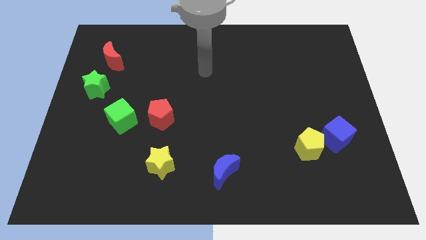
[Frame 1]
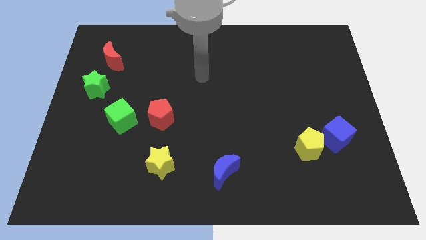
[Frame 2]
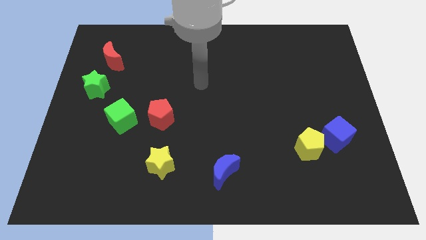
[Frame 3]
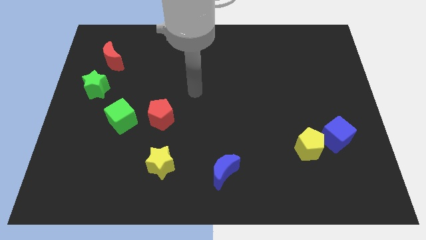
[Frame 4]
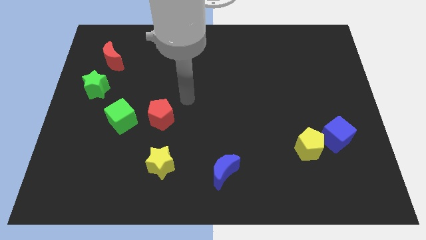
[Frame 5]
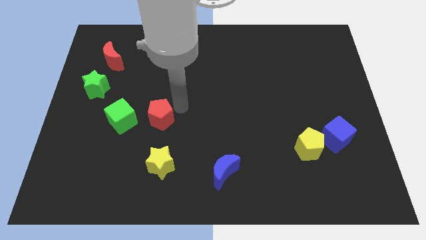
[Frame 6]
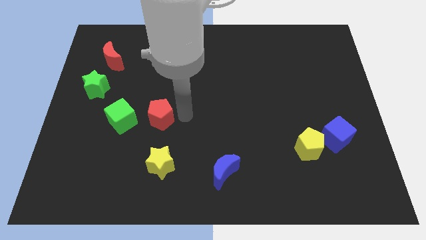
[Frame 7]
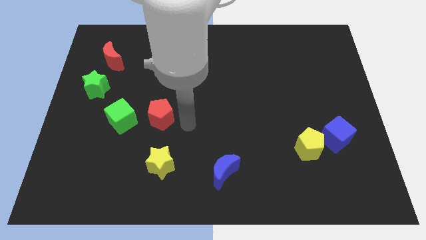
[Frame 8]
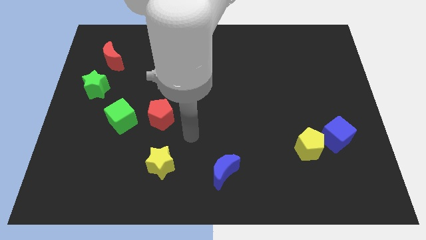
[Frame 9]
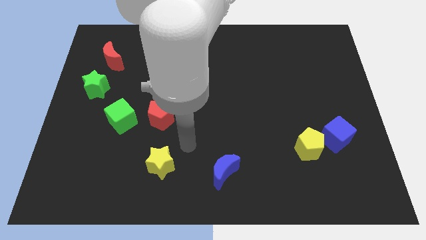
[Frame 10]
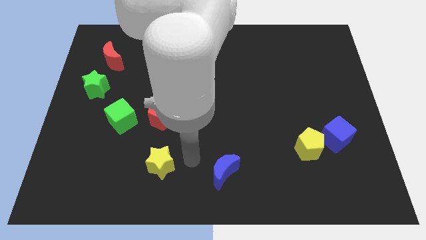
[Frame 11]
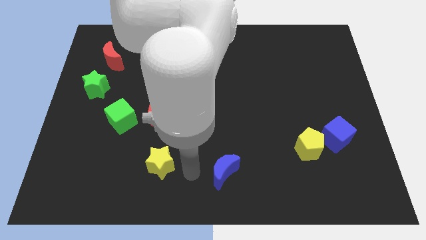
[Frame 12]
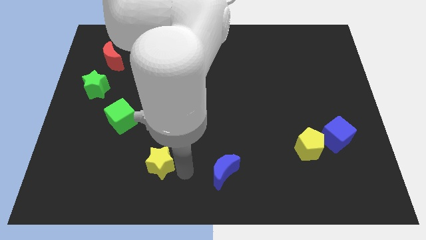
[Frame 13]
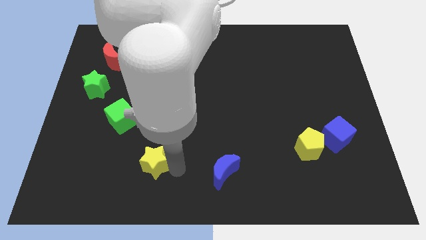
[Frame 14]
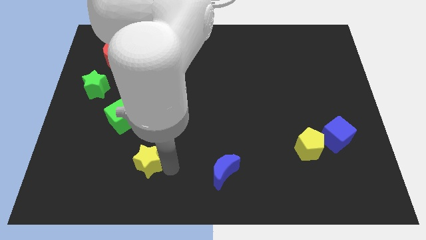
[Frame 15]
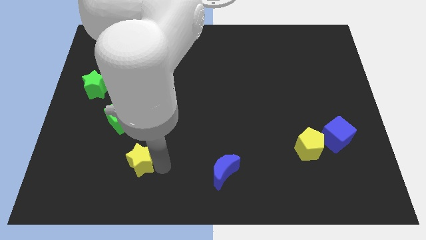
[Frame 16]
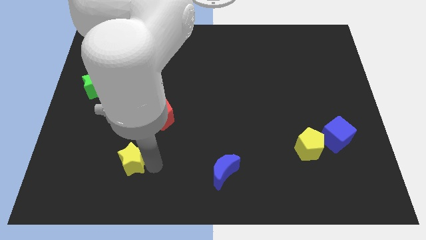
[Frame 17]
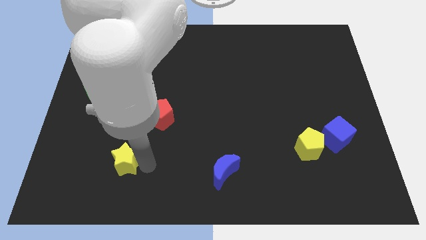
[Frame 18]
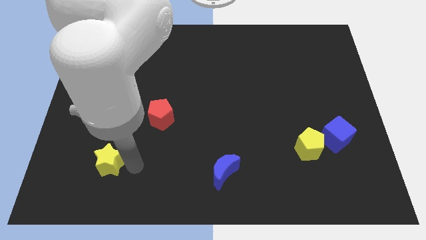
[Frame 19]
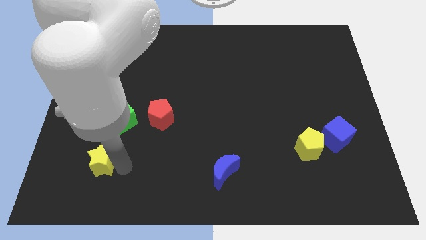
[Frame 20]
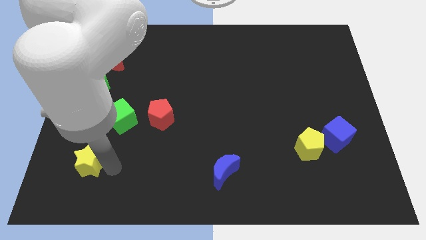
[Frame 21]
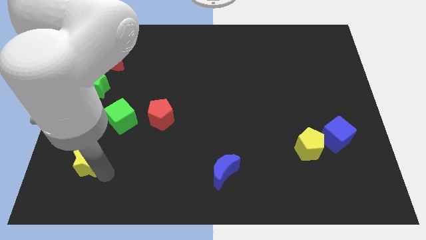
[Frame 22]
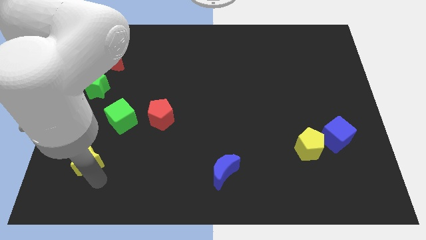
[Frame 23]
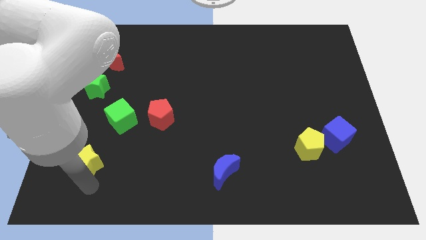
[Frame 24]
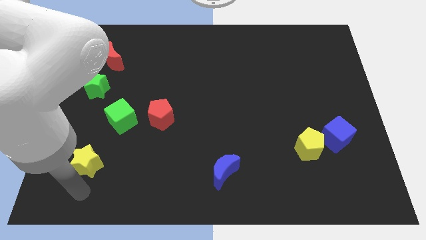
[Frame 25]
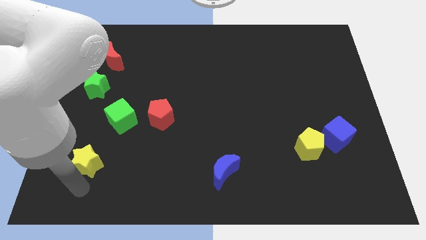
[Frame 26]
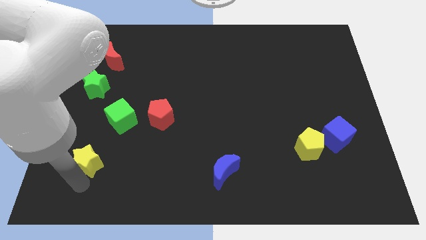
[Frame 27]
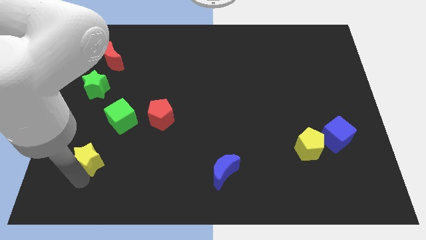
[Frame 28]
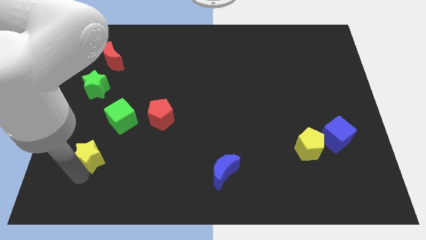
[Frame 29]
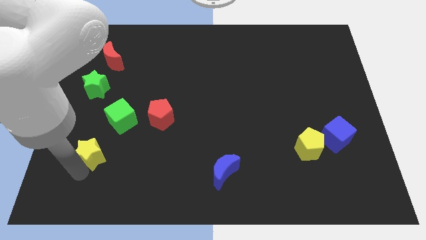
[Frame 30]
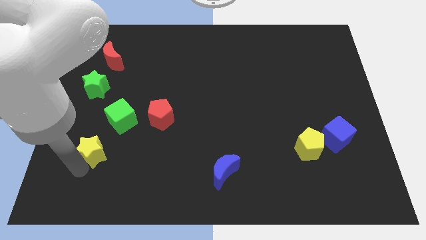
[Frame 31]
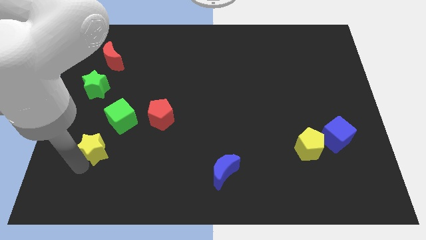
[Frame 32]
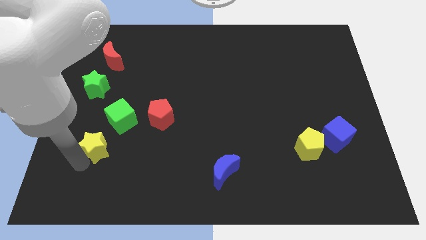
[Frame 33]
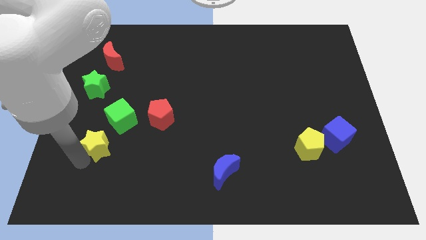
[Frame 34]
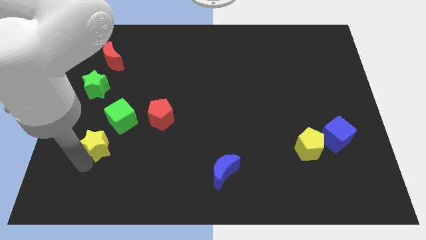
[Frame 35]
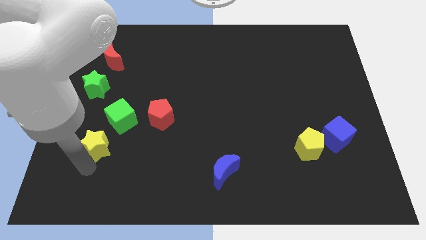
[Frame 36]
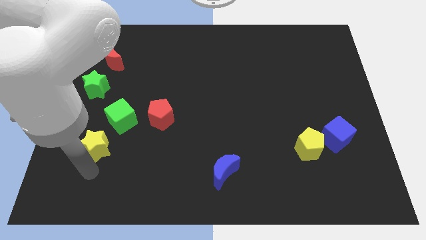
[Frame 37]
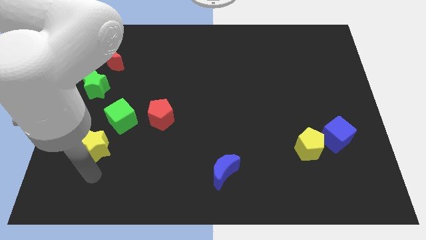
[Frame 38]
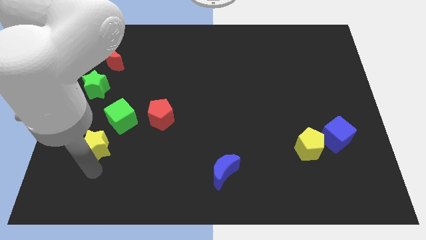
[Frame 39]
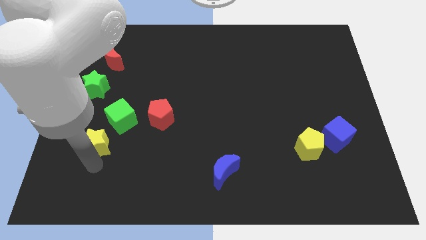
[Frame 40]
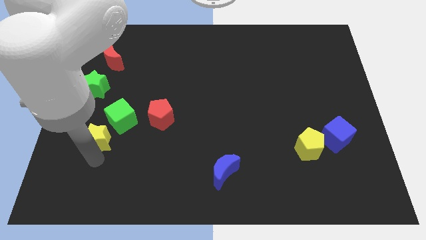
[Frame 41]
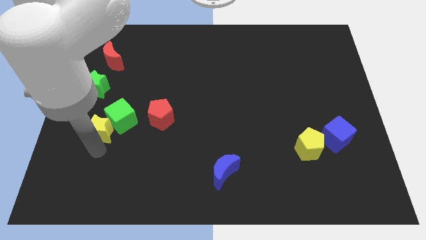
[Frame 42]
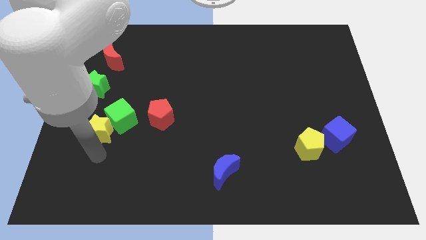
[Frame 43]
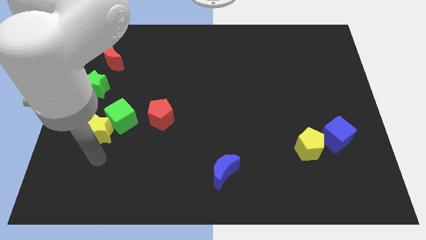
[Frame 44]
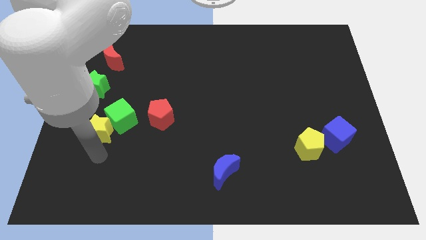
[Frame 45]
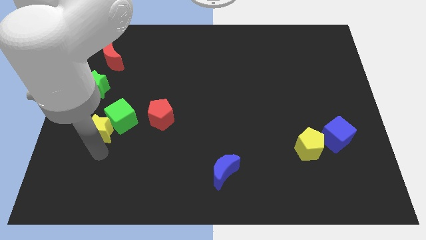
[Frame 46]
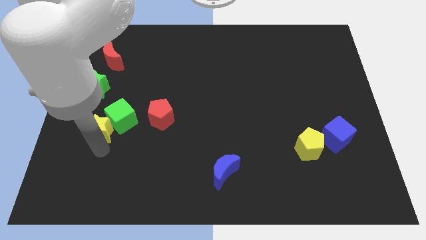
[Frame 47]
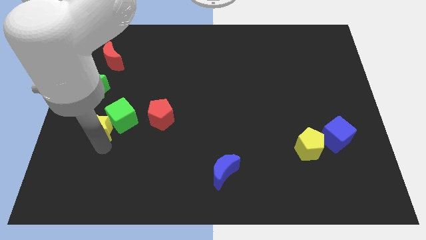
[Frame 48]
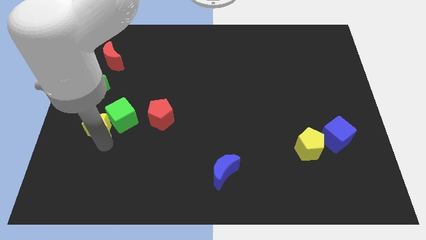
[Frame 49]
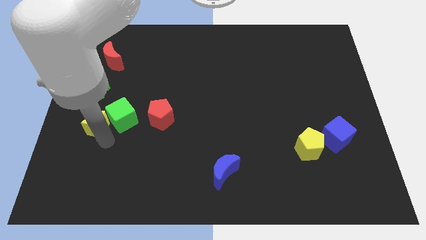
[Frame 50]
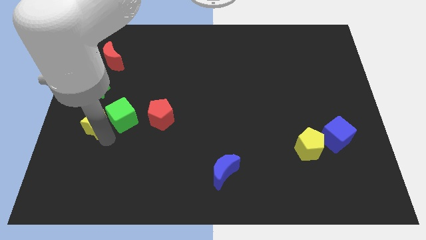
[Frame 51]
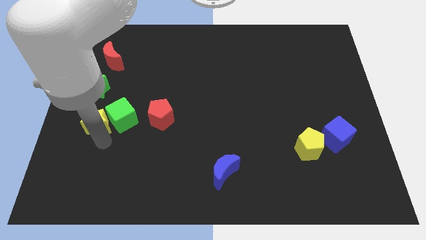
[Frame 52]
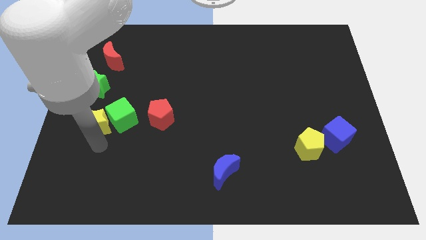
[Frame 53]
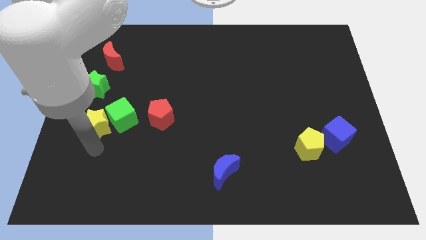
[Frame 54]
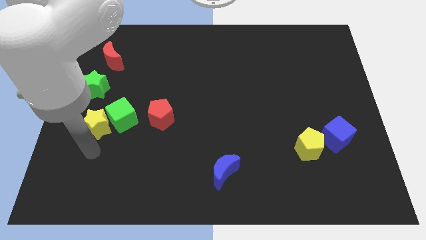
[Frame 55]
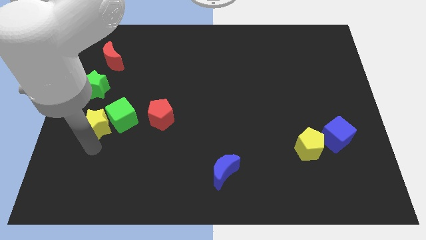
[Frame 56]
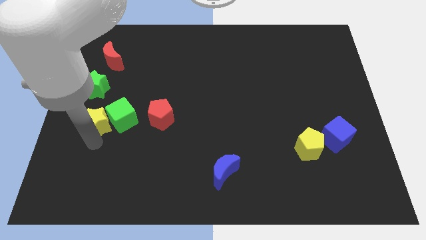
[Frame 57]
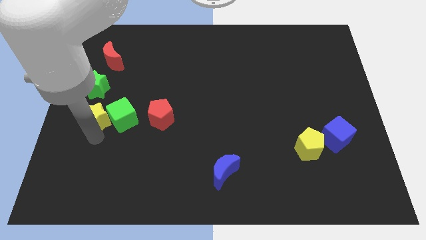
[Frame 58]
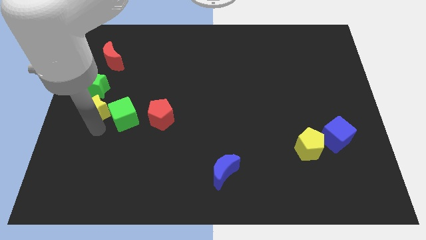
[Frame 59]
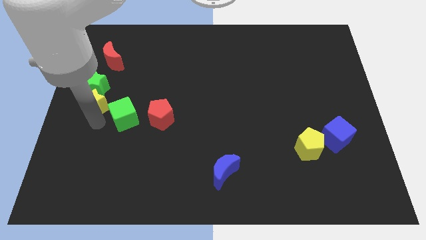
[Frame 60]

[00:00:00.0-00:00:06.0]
move the yellow star to the green star

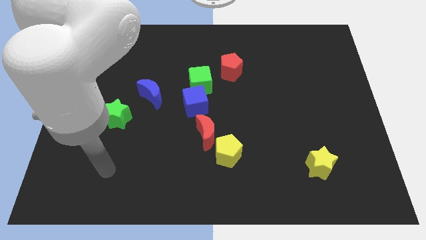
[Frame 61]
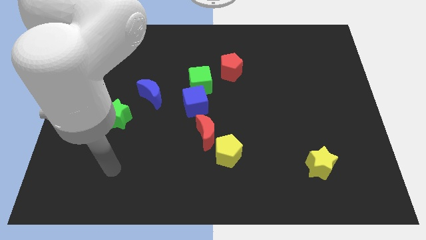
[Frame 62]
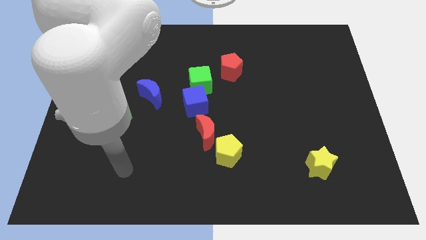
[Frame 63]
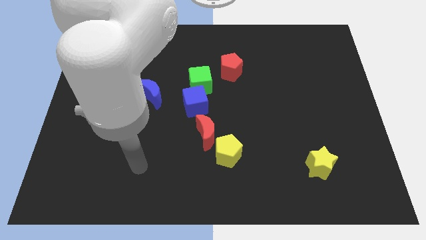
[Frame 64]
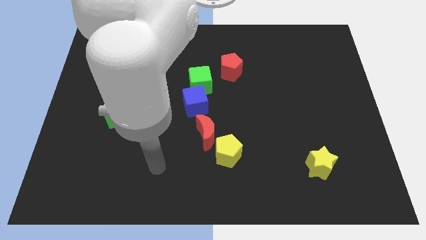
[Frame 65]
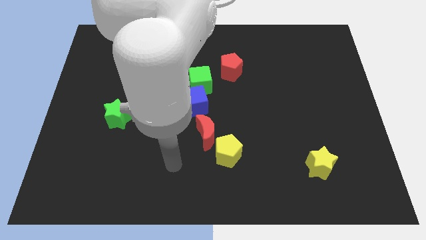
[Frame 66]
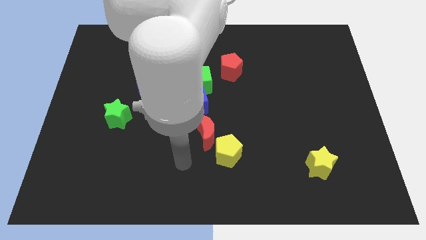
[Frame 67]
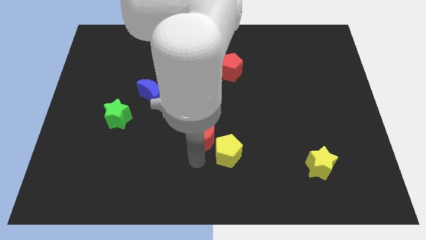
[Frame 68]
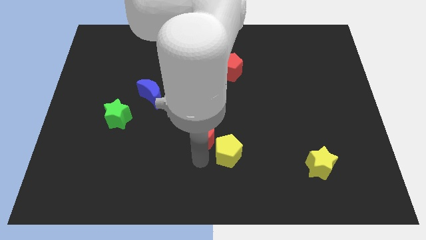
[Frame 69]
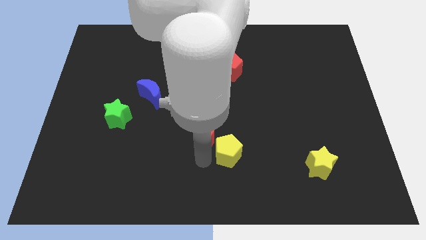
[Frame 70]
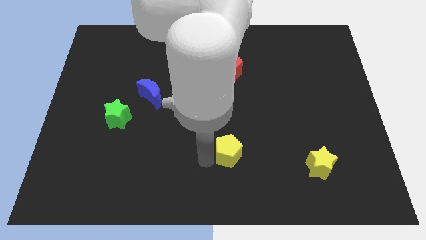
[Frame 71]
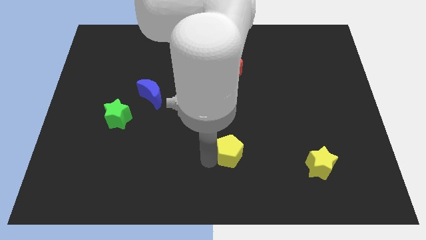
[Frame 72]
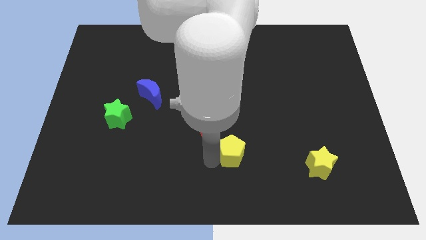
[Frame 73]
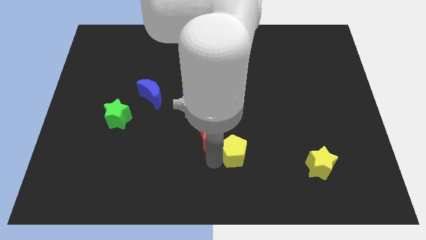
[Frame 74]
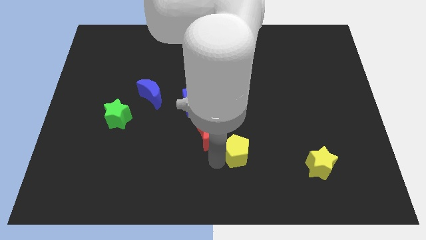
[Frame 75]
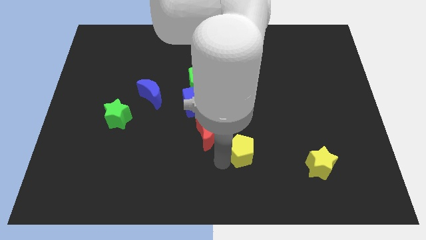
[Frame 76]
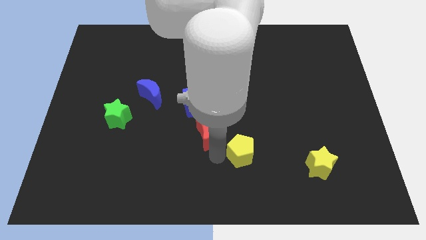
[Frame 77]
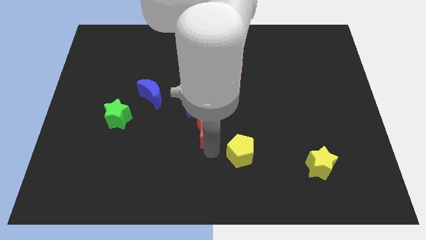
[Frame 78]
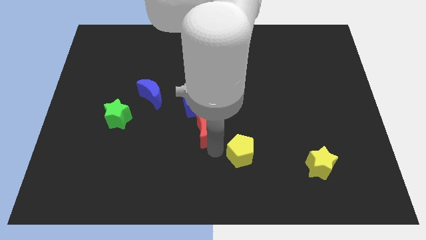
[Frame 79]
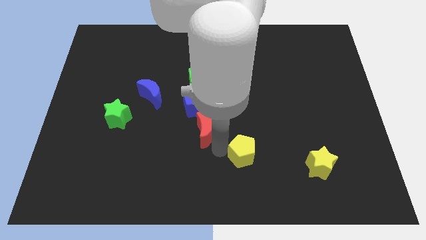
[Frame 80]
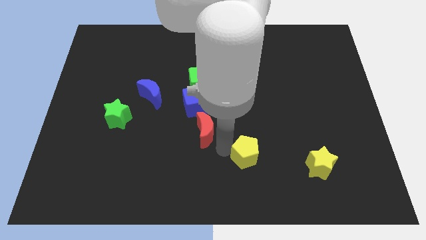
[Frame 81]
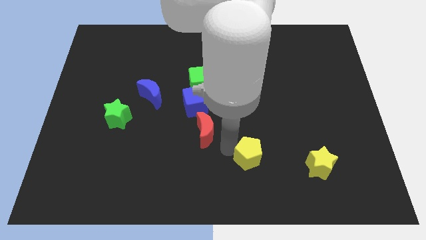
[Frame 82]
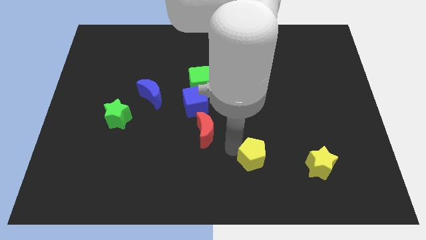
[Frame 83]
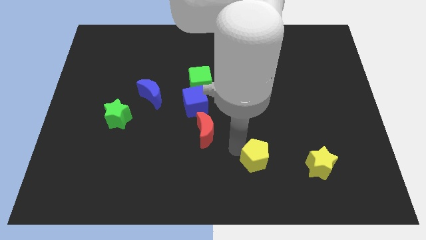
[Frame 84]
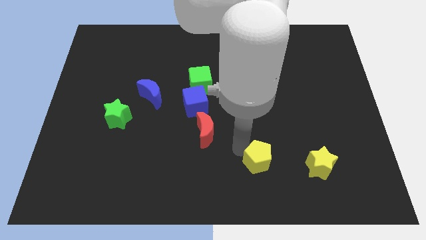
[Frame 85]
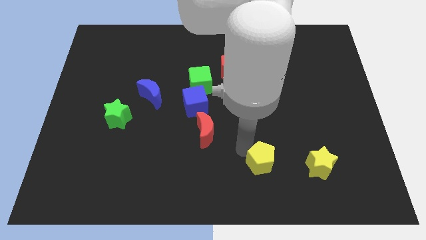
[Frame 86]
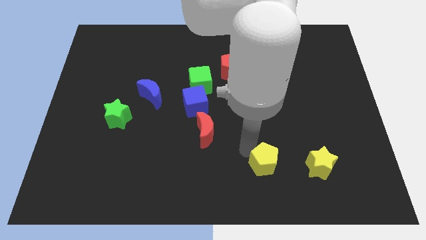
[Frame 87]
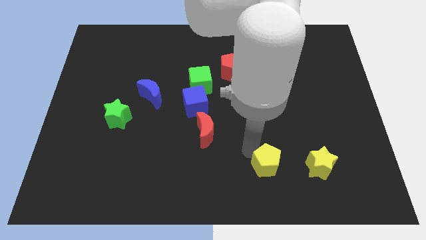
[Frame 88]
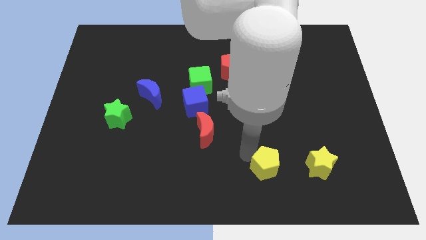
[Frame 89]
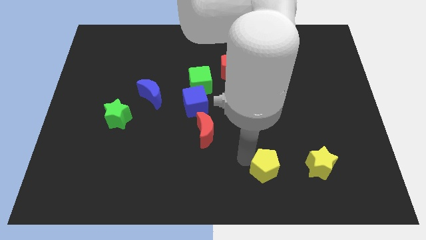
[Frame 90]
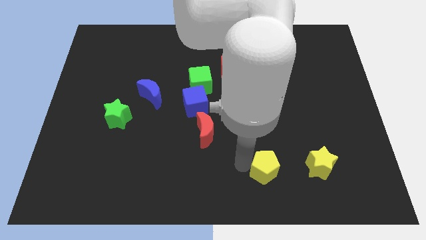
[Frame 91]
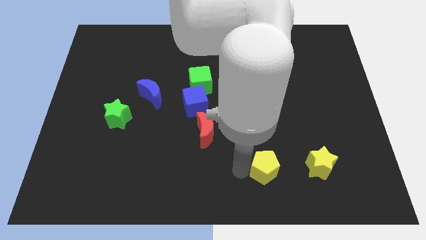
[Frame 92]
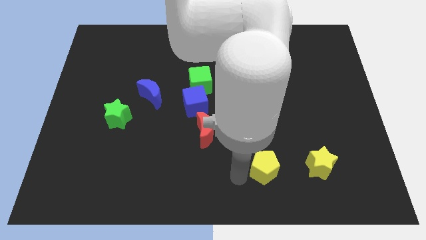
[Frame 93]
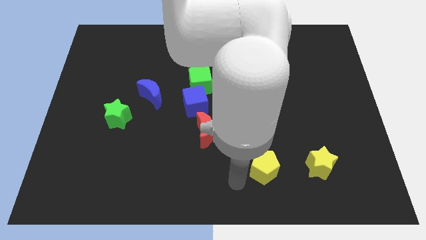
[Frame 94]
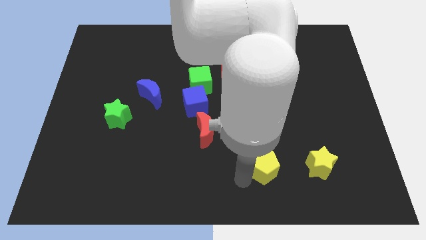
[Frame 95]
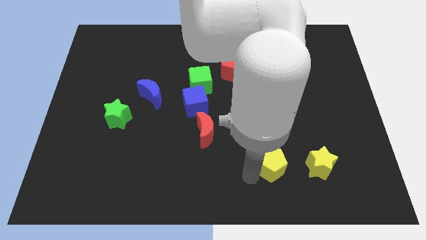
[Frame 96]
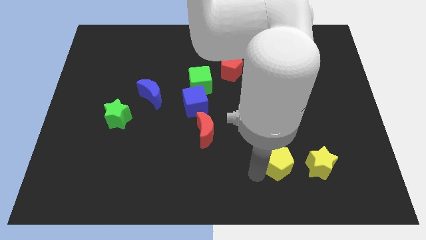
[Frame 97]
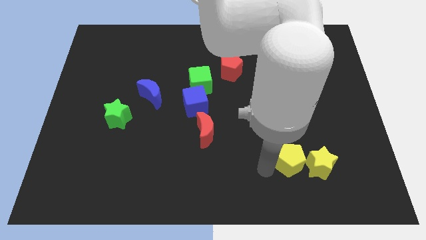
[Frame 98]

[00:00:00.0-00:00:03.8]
move the yellow pentagon close to the yellow star
